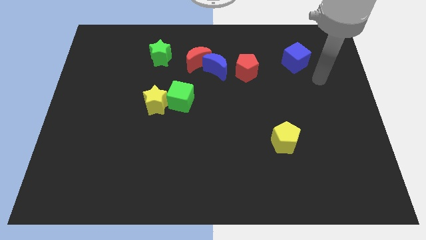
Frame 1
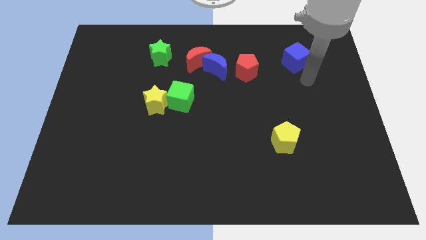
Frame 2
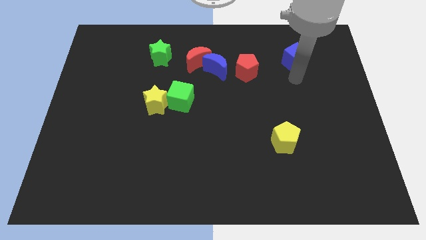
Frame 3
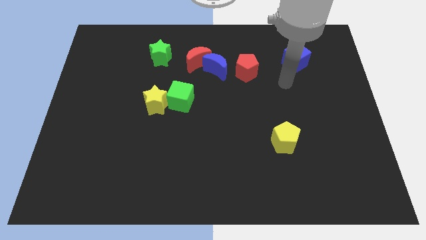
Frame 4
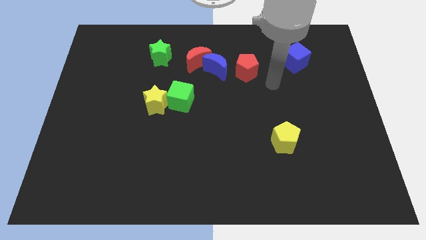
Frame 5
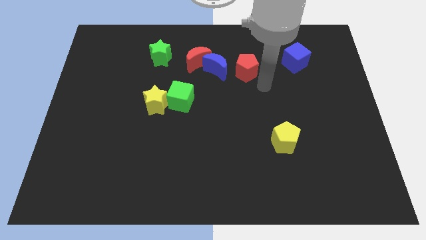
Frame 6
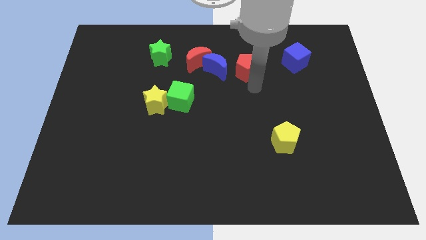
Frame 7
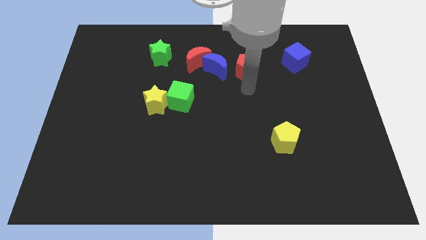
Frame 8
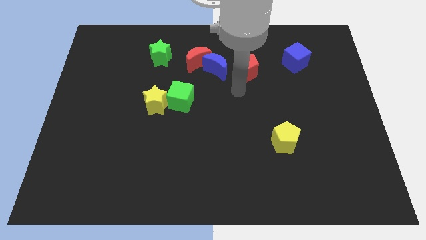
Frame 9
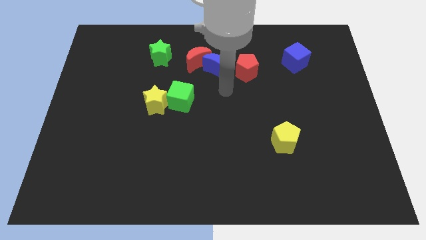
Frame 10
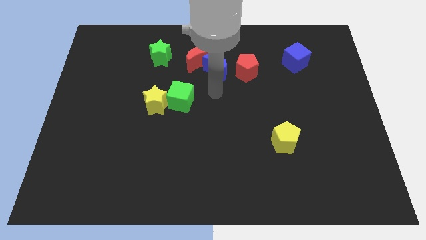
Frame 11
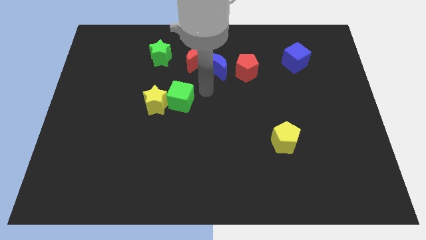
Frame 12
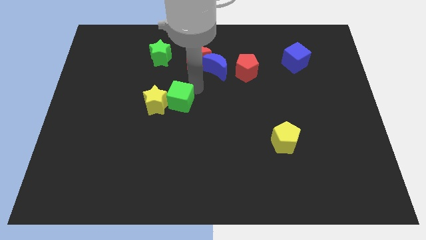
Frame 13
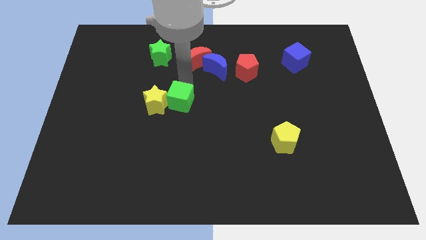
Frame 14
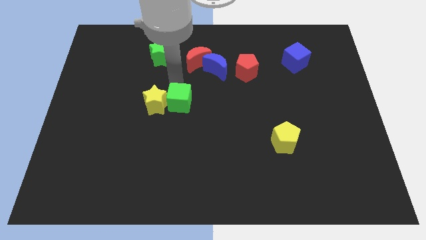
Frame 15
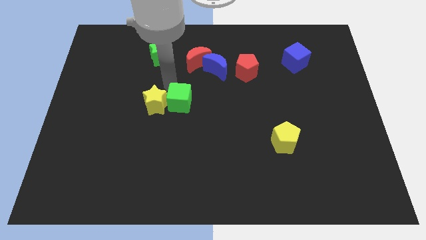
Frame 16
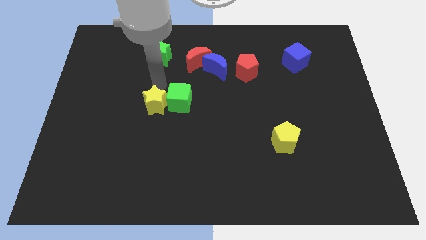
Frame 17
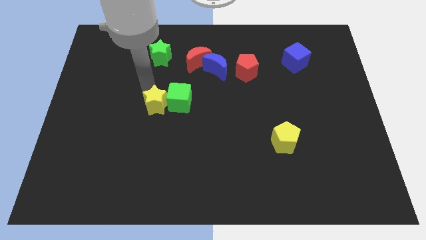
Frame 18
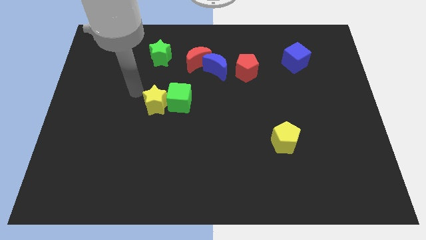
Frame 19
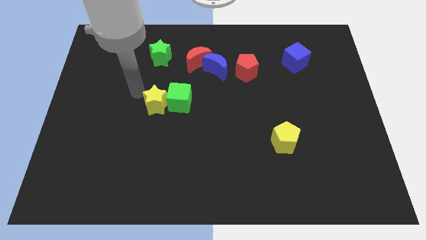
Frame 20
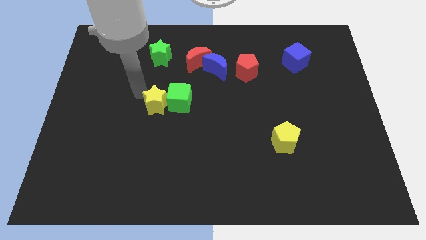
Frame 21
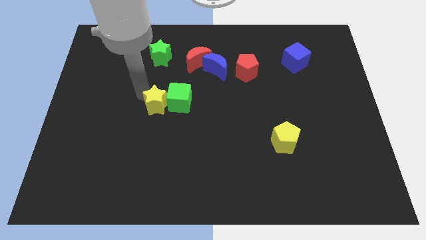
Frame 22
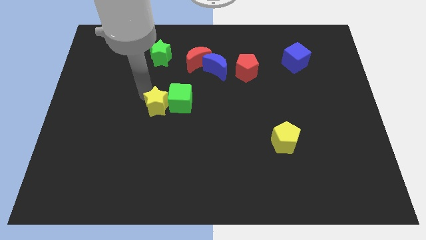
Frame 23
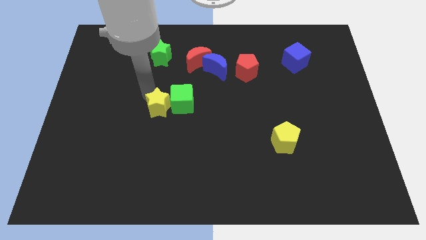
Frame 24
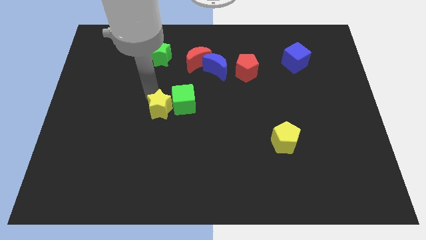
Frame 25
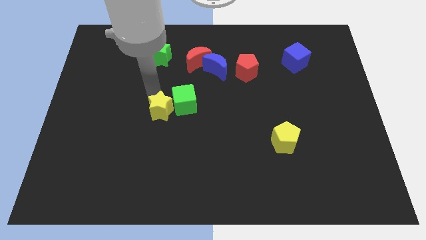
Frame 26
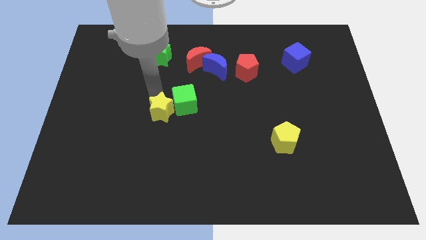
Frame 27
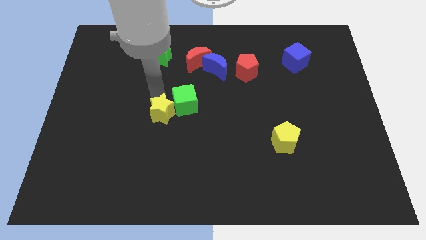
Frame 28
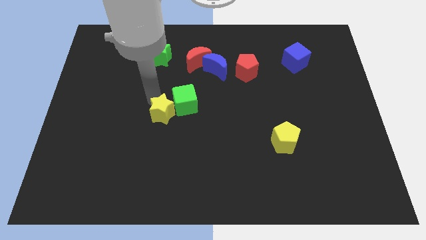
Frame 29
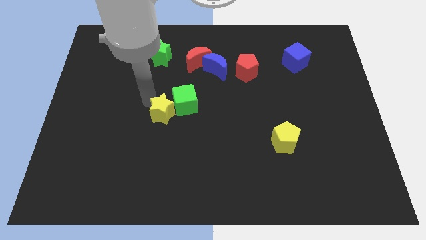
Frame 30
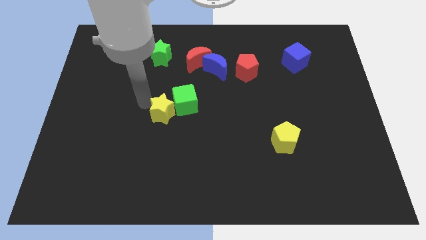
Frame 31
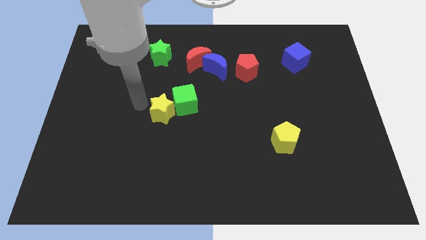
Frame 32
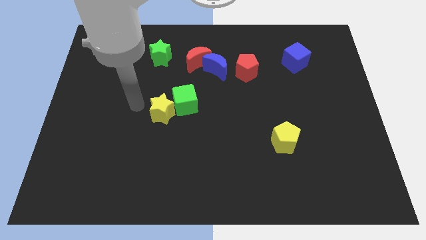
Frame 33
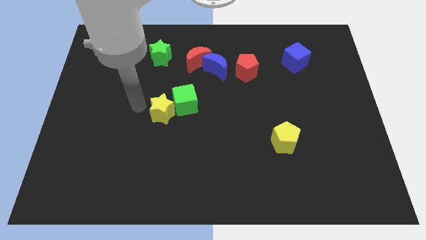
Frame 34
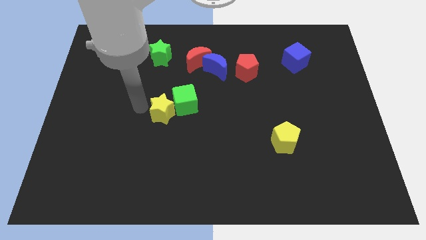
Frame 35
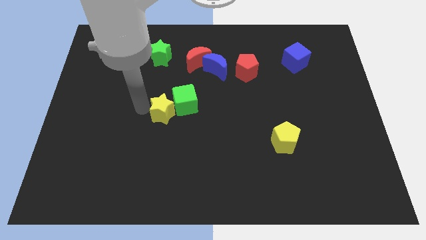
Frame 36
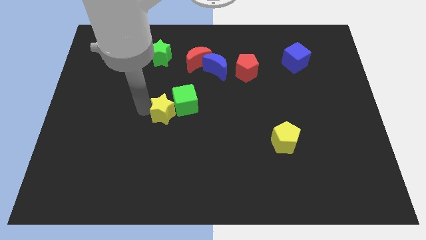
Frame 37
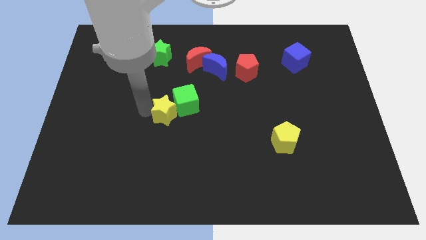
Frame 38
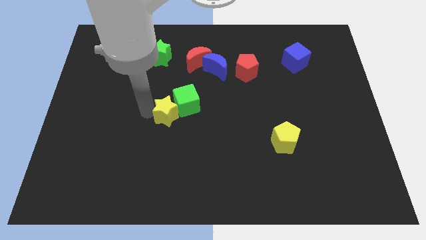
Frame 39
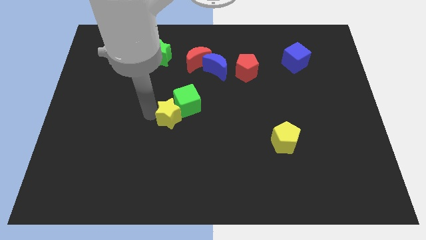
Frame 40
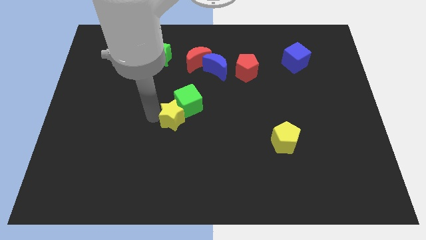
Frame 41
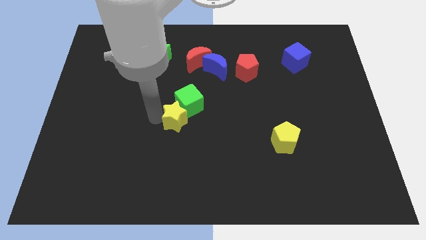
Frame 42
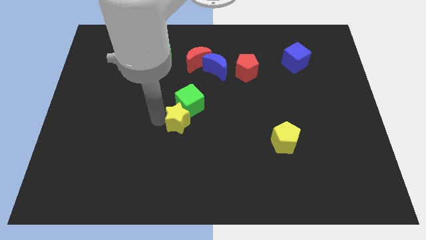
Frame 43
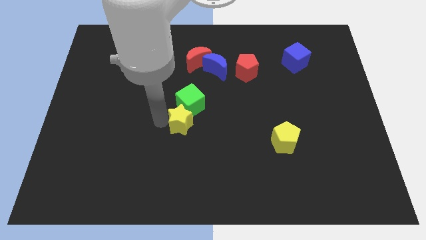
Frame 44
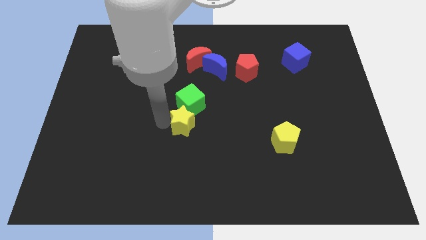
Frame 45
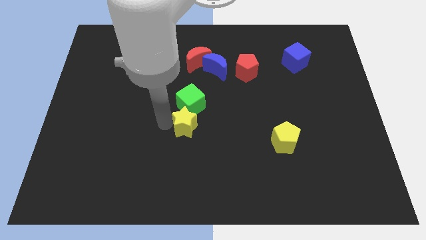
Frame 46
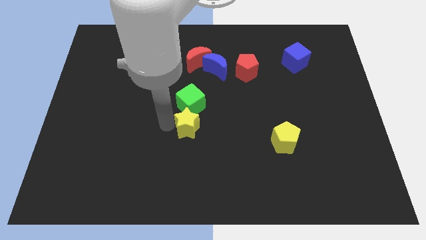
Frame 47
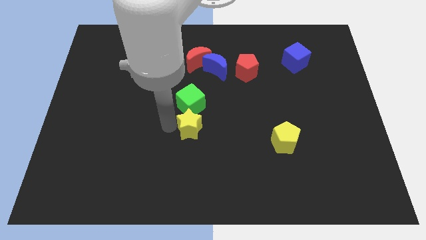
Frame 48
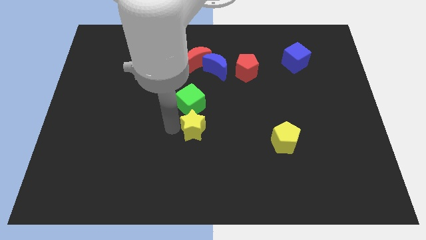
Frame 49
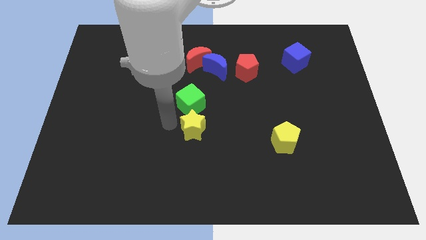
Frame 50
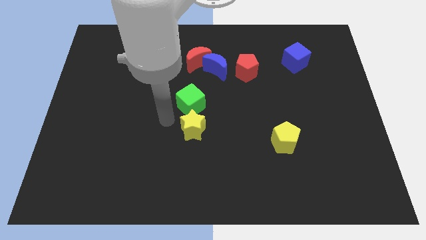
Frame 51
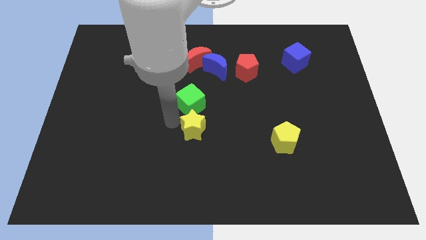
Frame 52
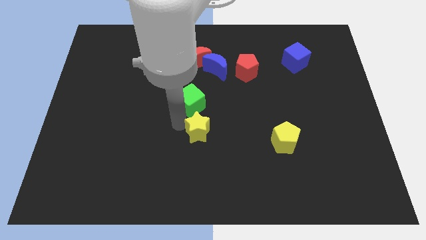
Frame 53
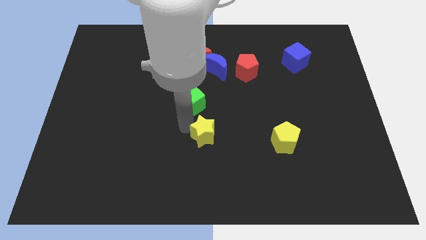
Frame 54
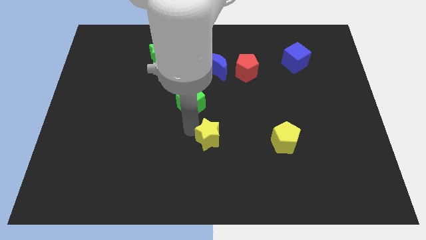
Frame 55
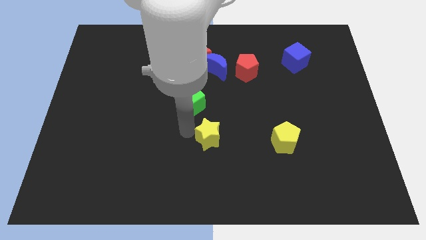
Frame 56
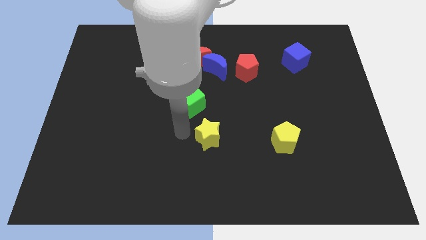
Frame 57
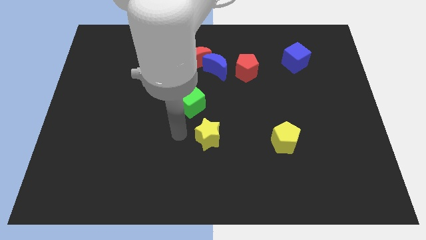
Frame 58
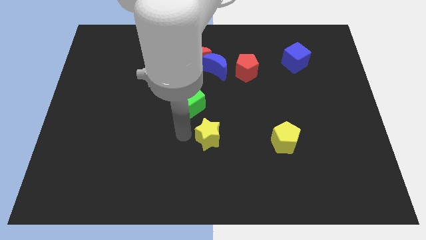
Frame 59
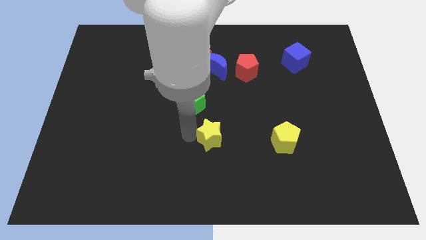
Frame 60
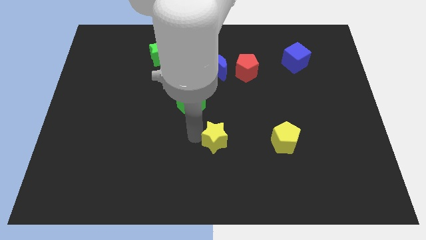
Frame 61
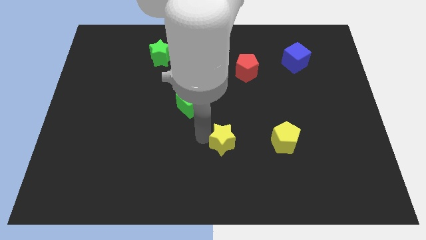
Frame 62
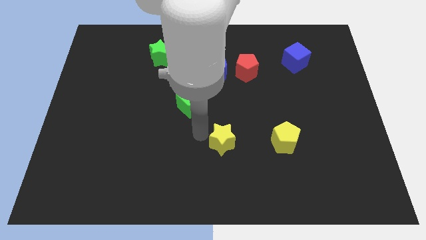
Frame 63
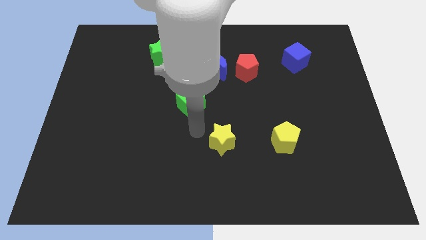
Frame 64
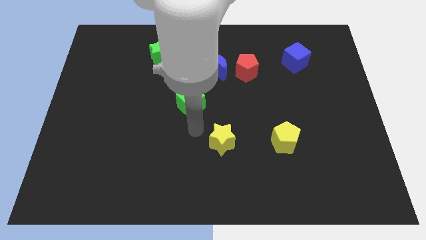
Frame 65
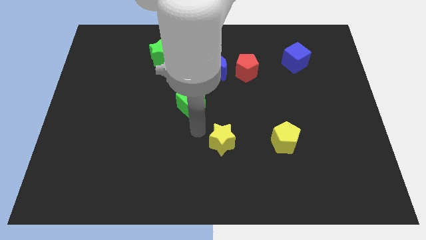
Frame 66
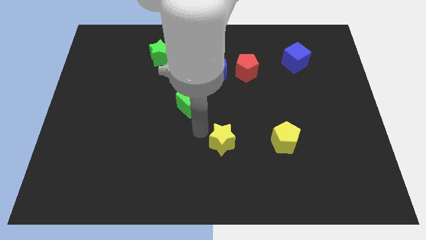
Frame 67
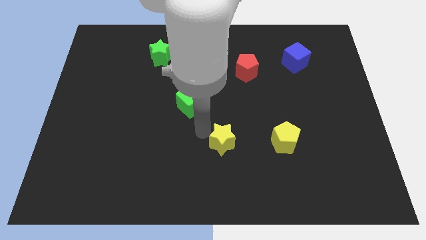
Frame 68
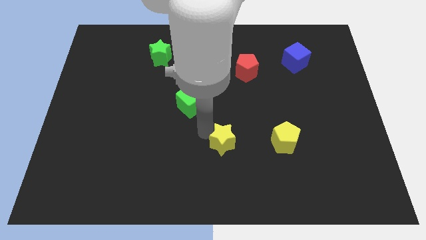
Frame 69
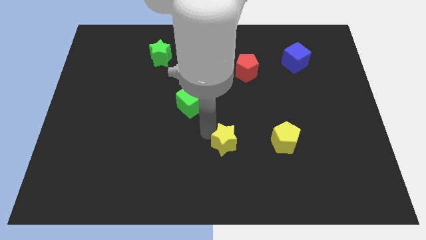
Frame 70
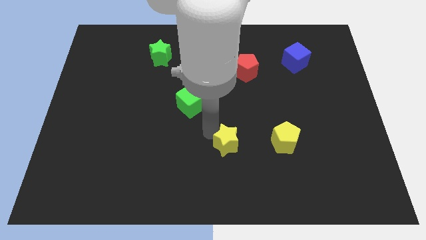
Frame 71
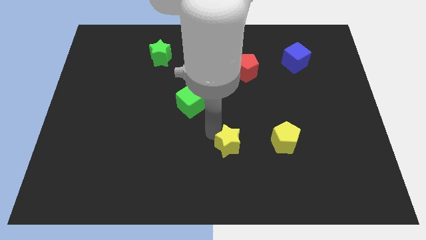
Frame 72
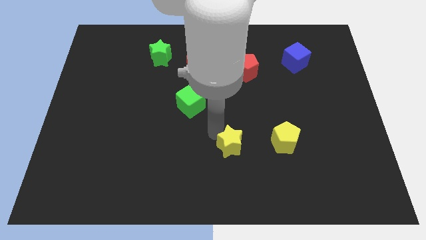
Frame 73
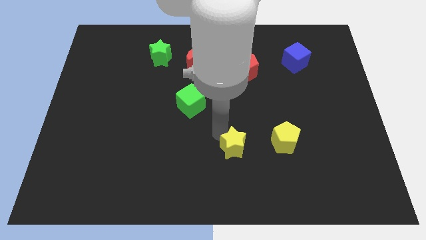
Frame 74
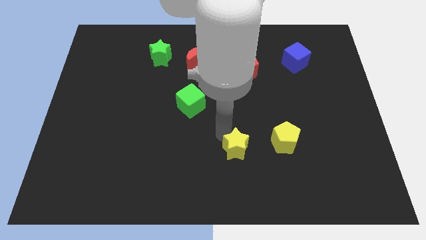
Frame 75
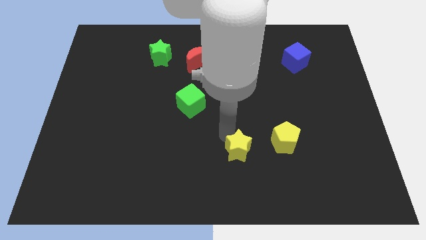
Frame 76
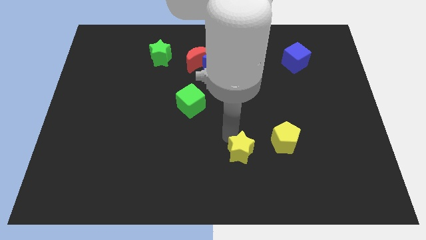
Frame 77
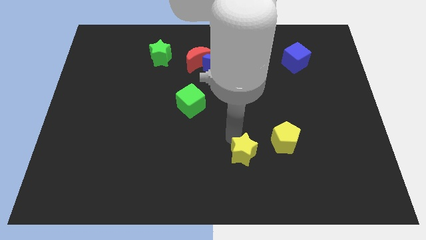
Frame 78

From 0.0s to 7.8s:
put the yellow star to the bottom left side of the yellow pentagon

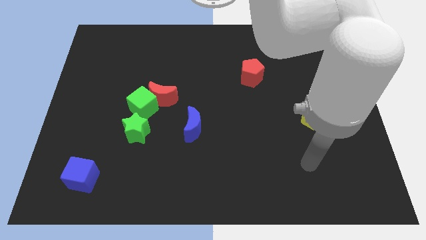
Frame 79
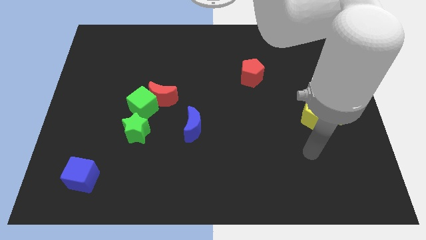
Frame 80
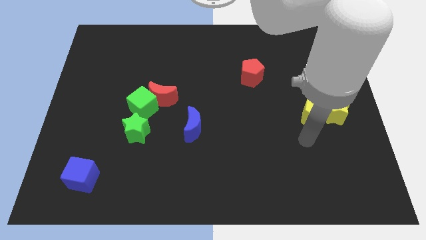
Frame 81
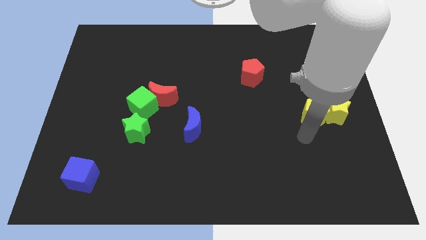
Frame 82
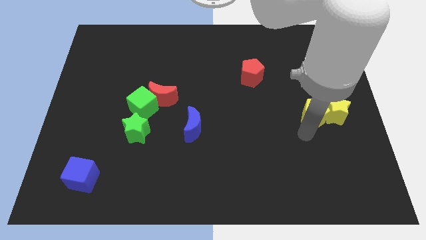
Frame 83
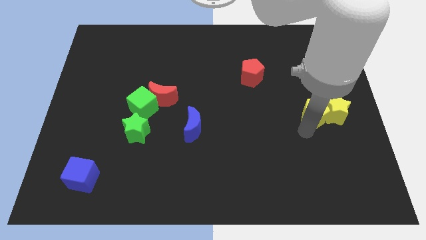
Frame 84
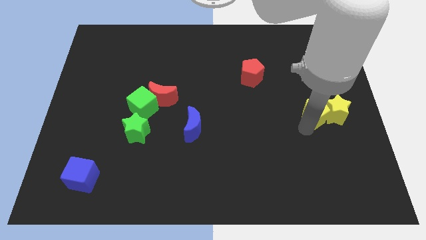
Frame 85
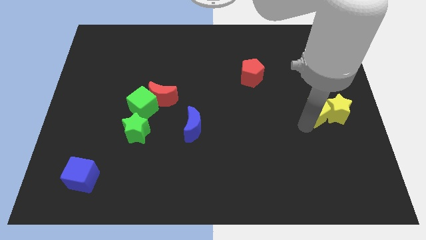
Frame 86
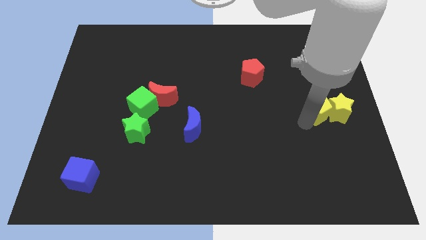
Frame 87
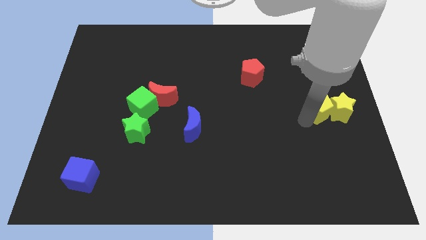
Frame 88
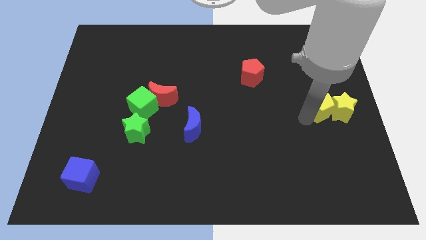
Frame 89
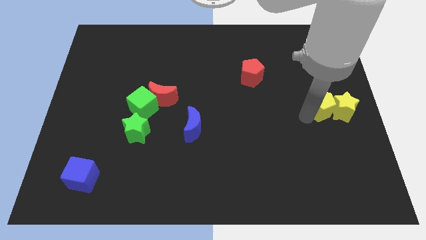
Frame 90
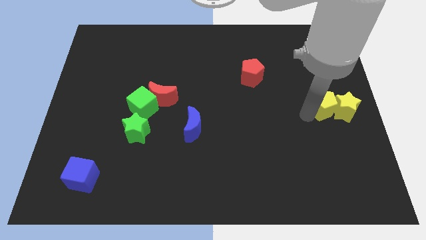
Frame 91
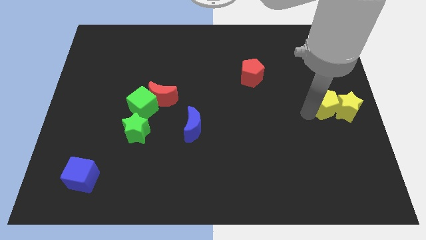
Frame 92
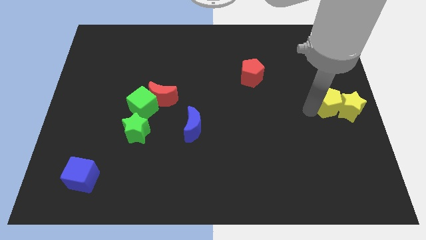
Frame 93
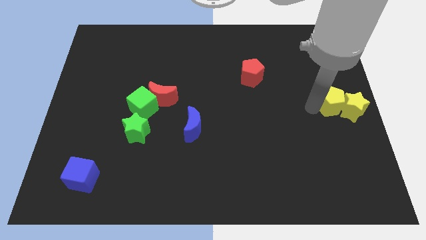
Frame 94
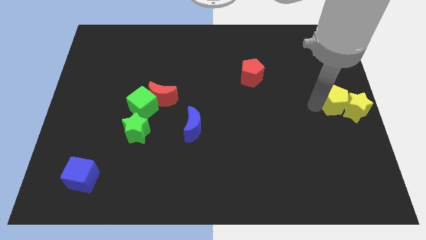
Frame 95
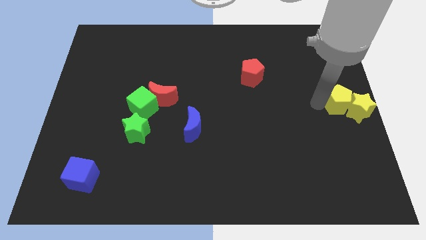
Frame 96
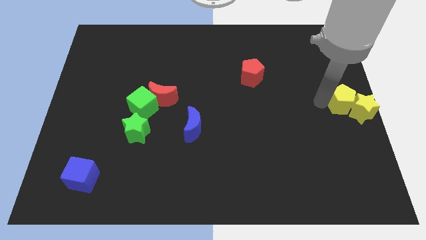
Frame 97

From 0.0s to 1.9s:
slide the yellow pentagon to the top side of the yellow star
